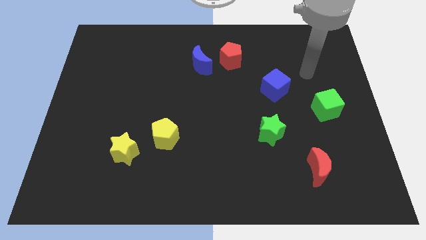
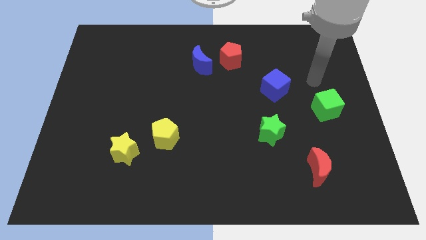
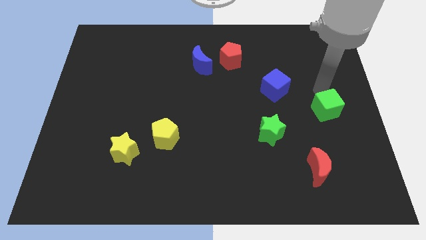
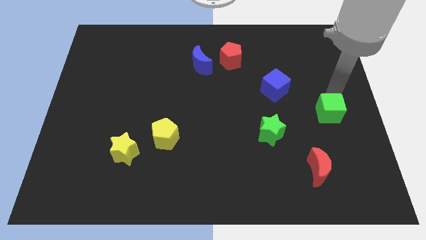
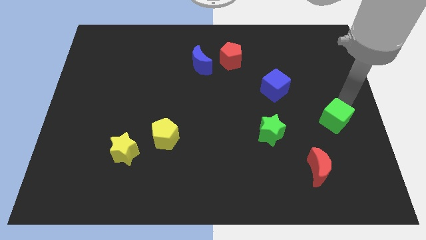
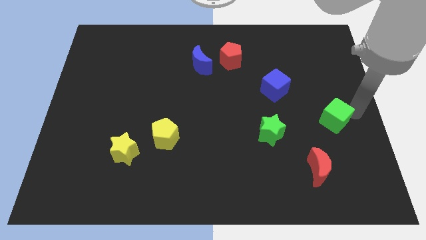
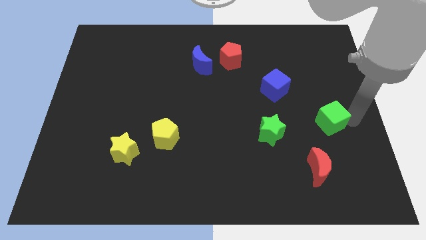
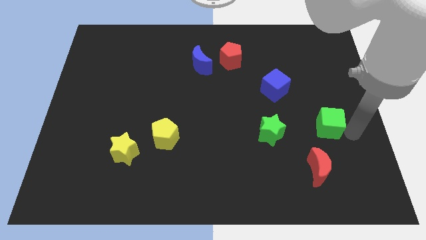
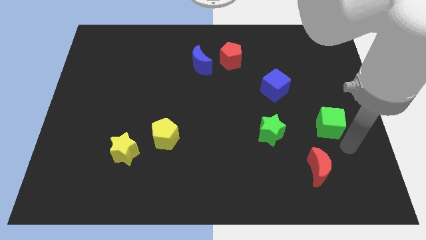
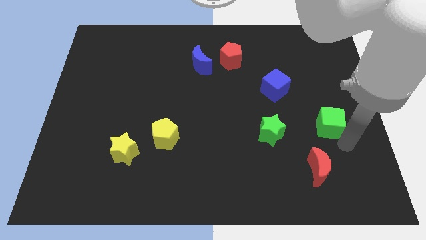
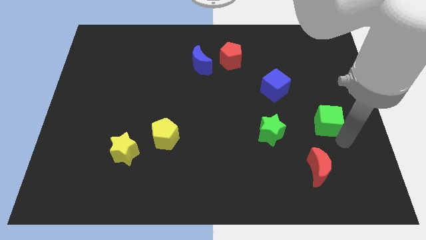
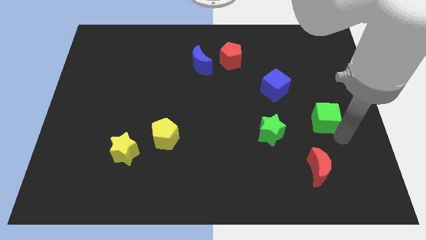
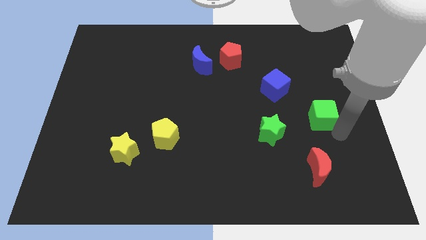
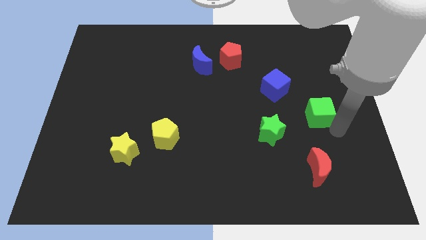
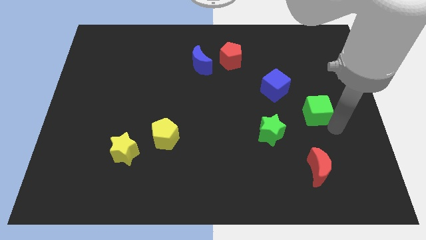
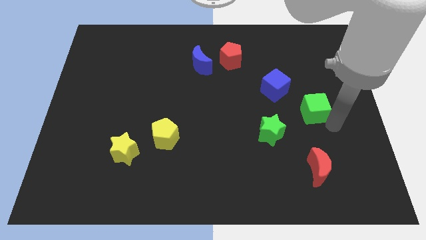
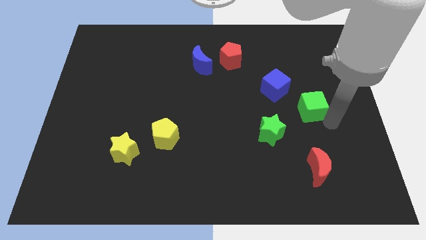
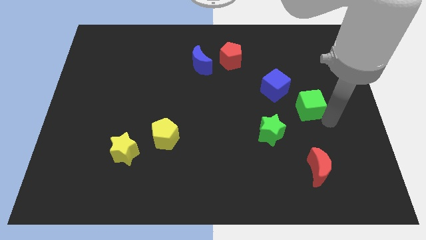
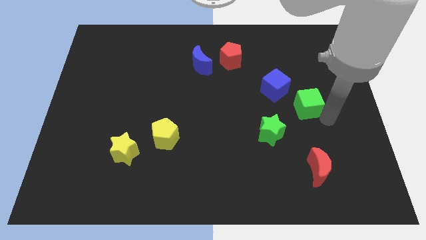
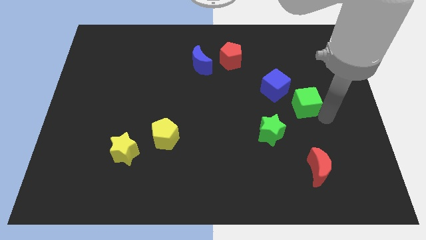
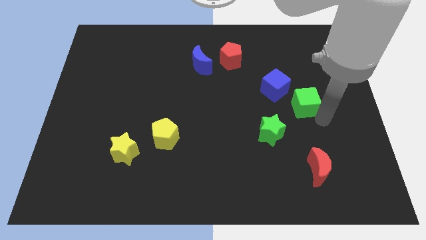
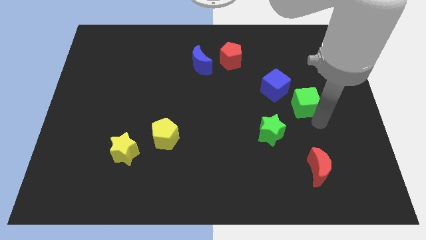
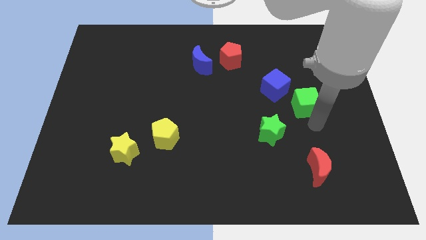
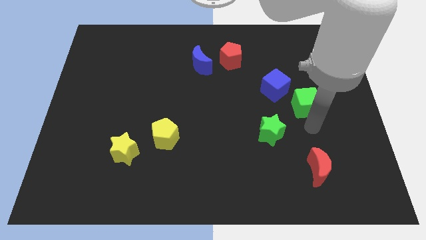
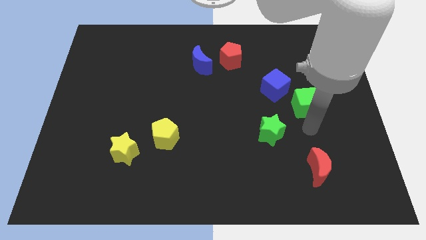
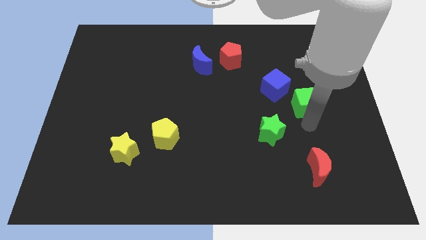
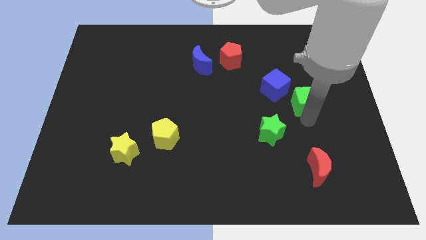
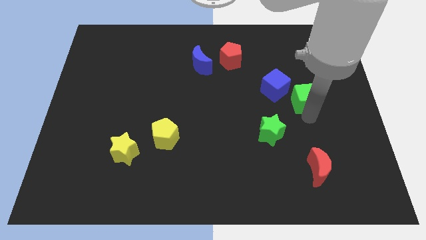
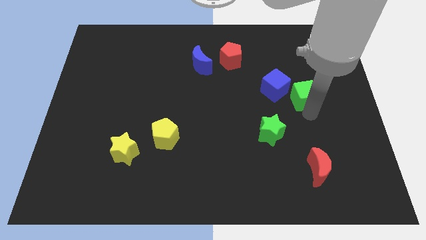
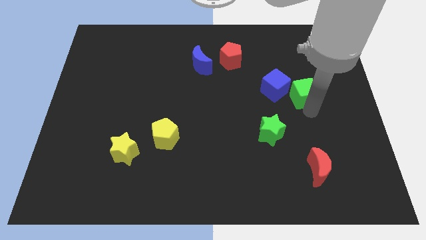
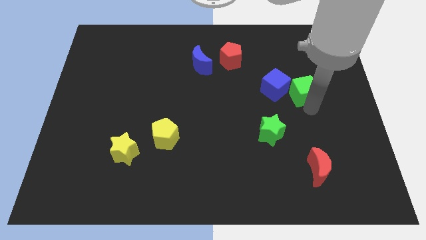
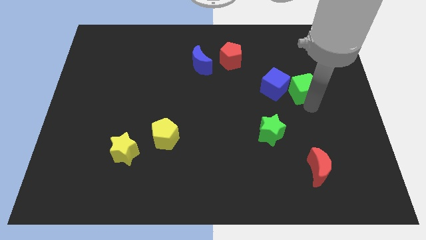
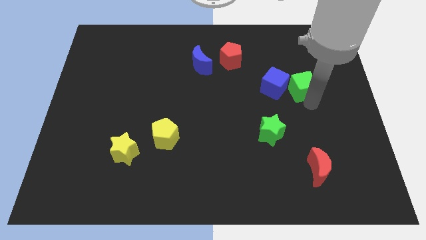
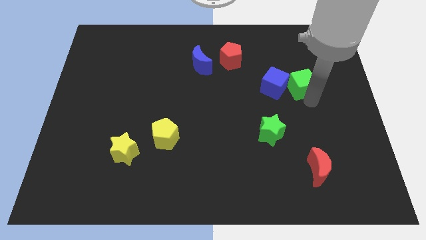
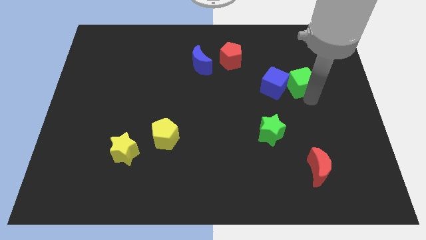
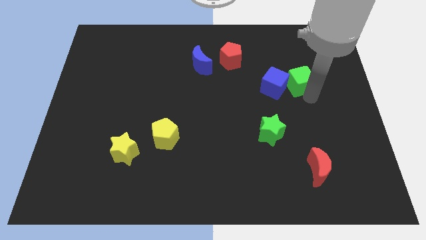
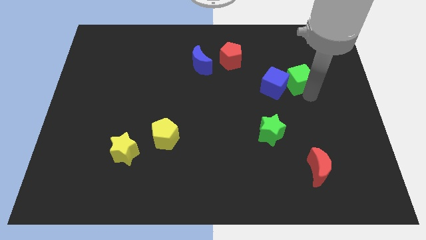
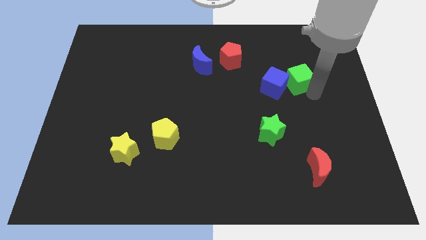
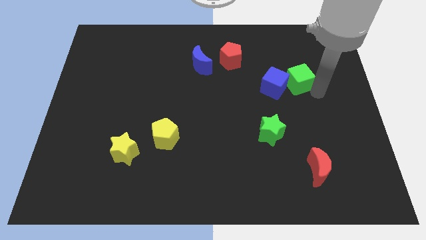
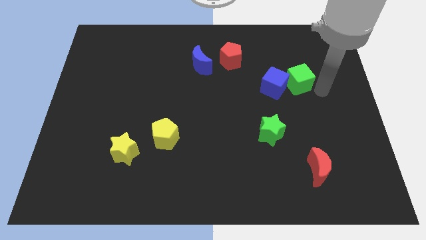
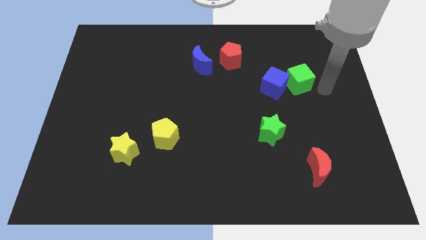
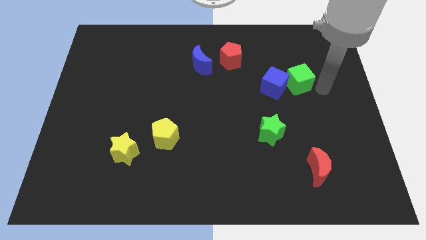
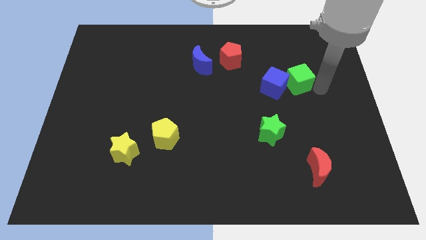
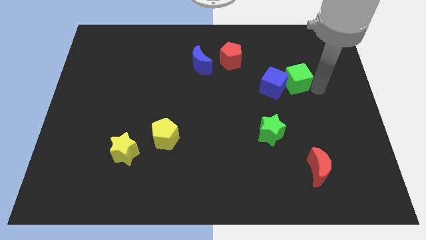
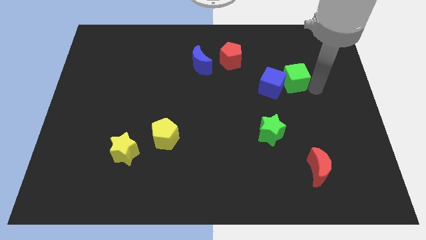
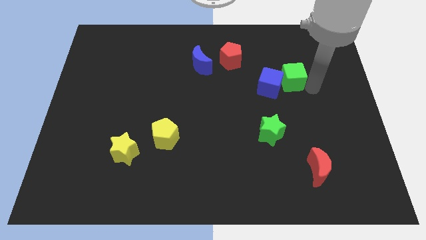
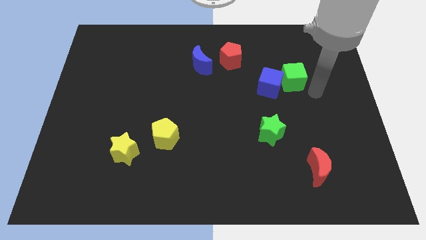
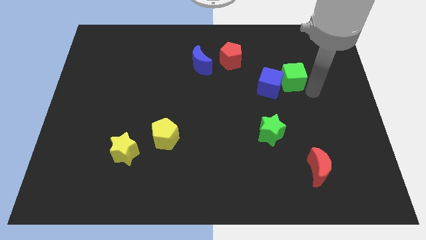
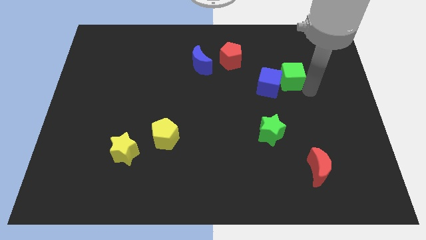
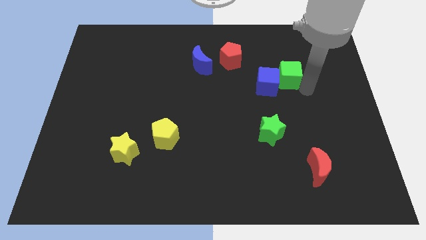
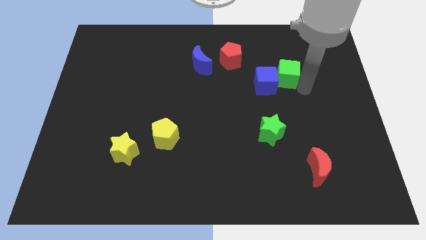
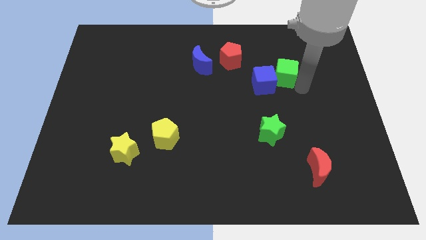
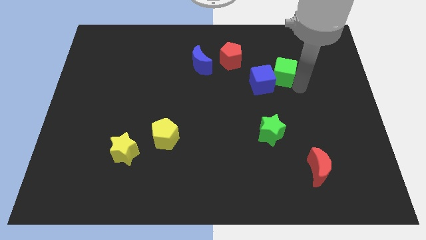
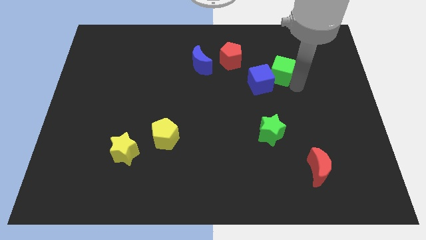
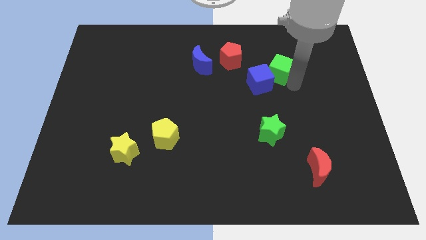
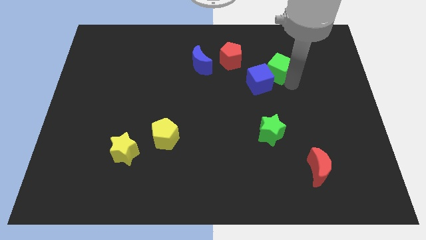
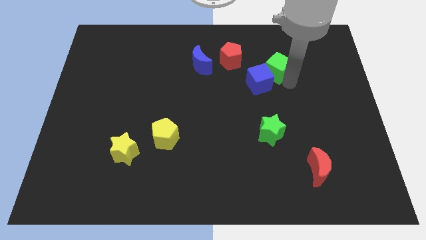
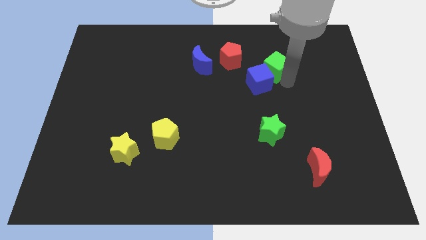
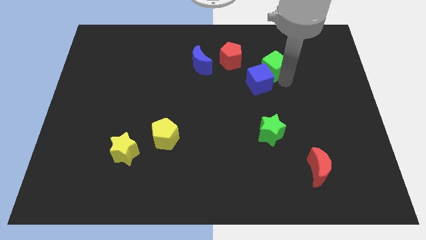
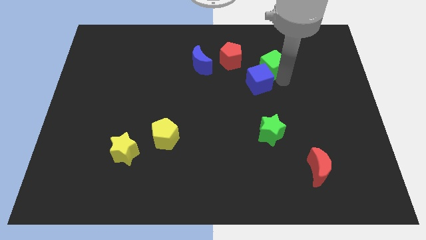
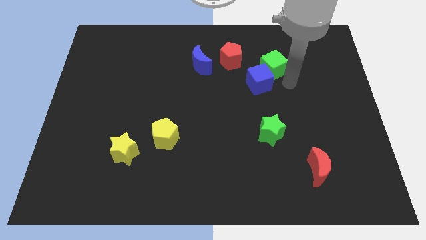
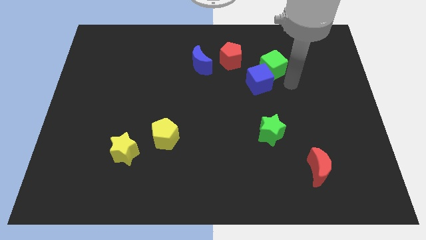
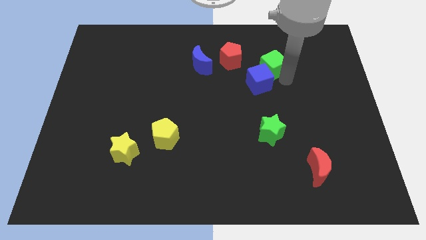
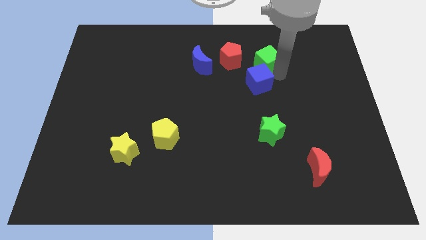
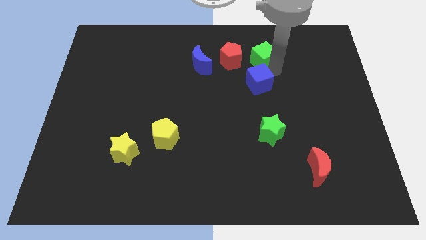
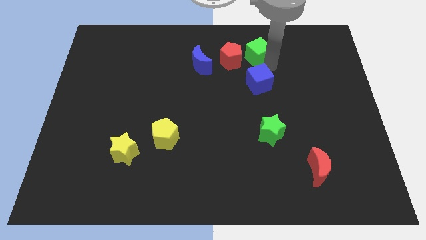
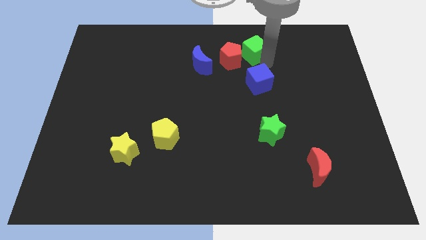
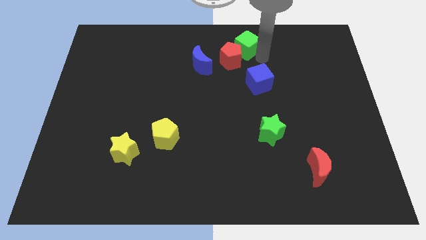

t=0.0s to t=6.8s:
move the green cube to the top

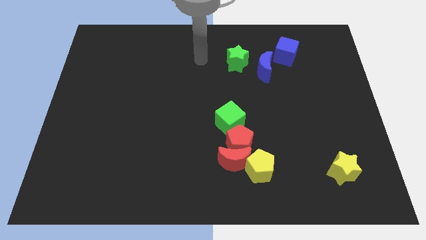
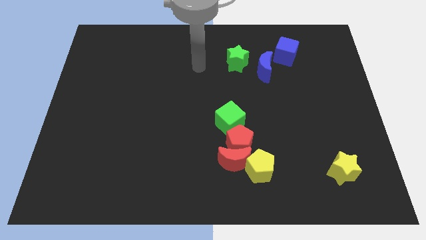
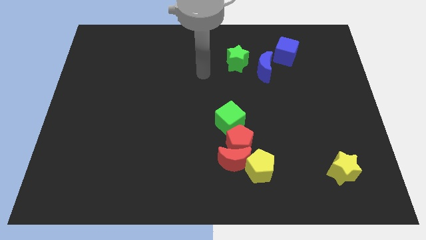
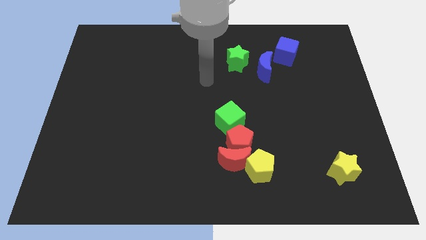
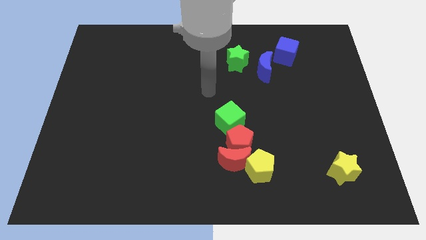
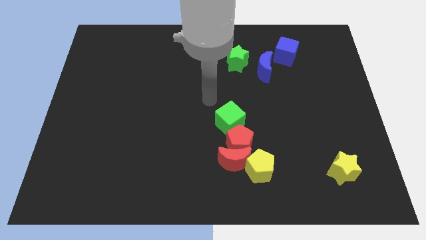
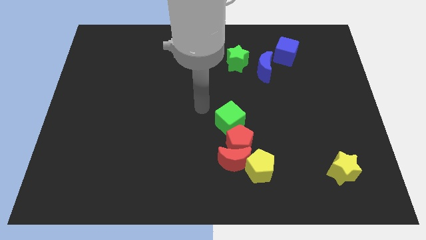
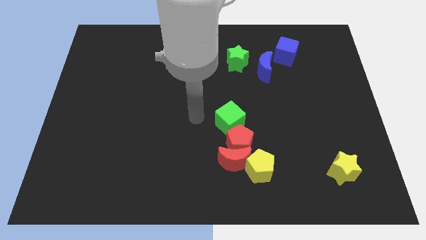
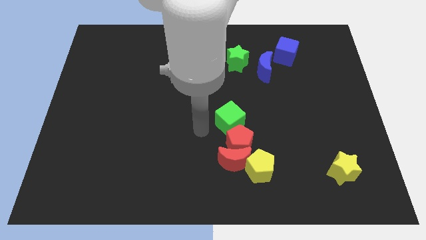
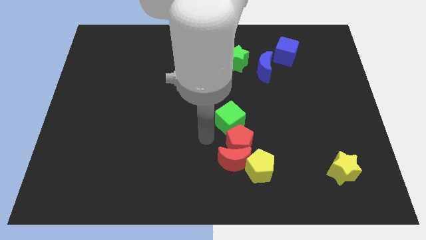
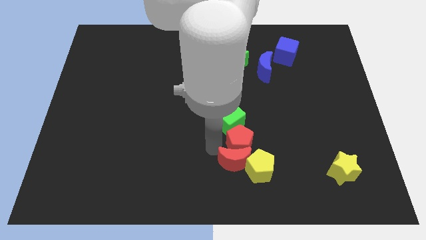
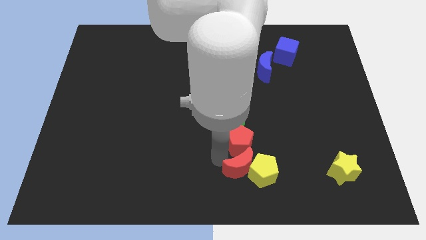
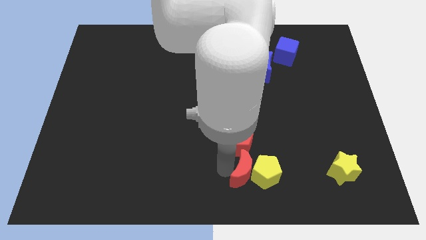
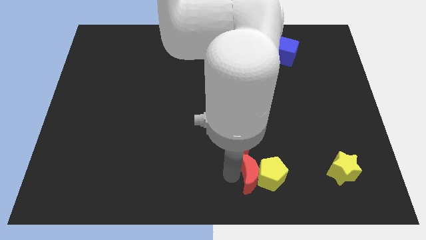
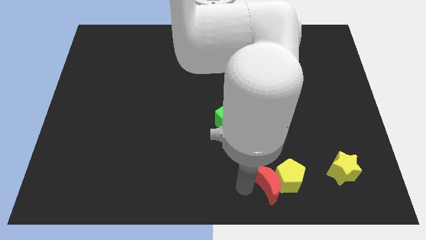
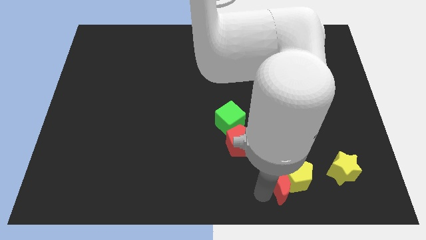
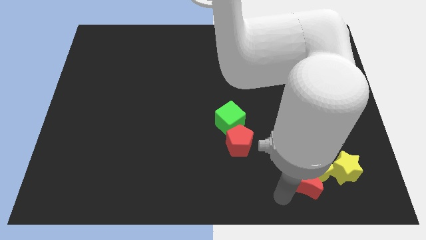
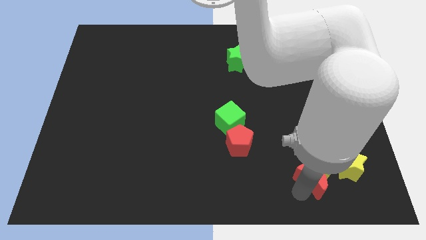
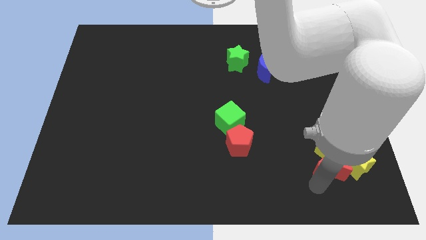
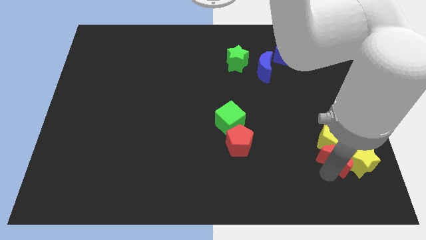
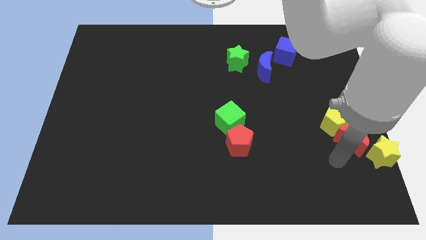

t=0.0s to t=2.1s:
slide the yellow pentagon to the right side
